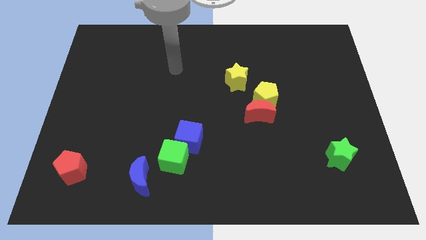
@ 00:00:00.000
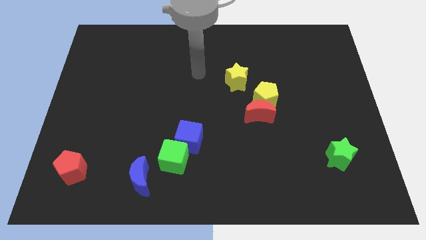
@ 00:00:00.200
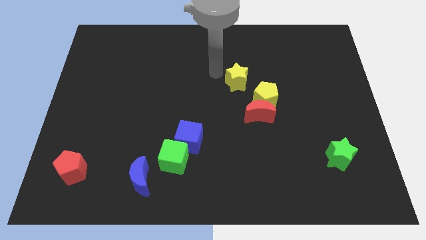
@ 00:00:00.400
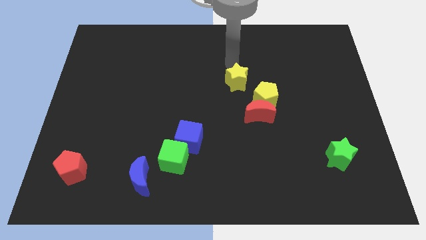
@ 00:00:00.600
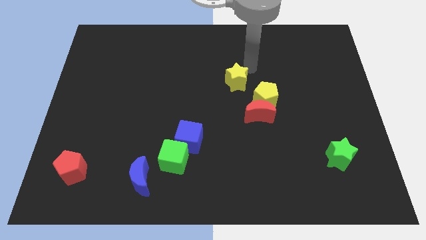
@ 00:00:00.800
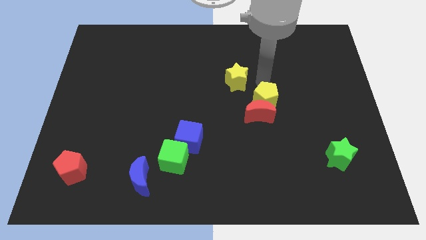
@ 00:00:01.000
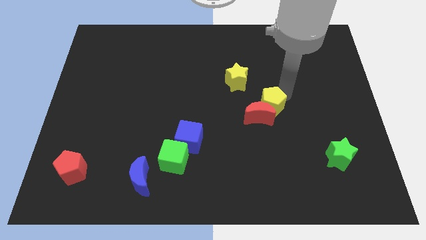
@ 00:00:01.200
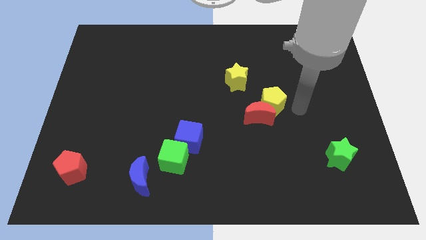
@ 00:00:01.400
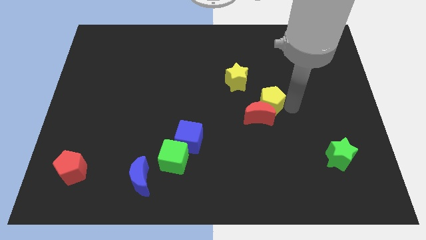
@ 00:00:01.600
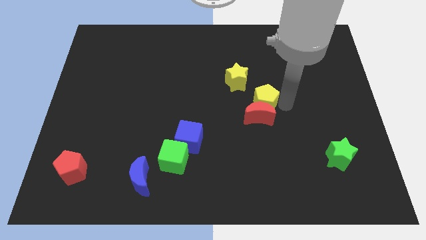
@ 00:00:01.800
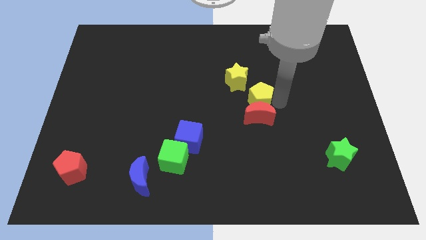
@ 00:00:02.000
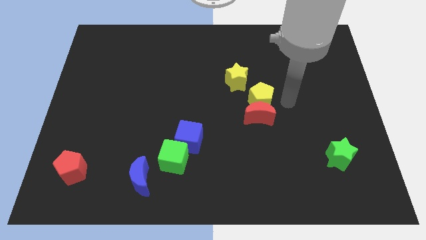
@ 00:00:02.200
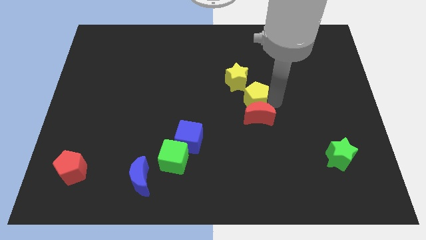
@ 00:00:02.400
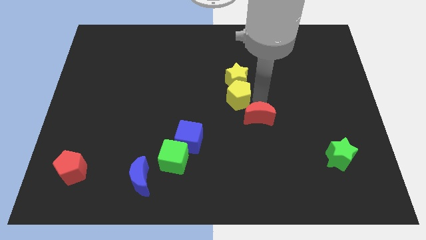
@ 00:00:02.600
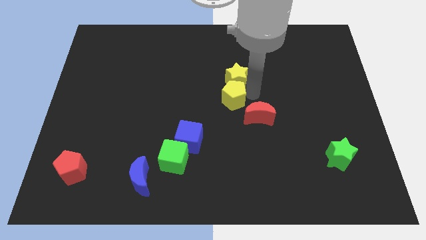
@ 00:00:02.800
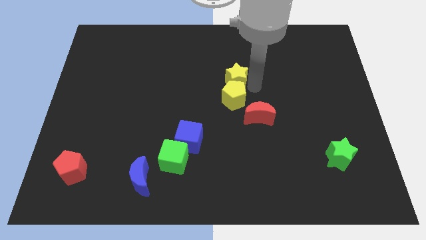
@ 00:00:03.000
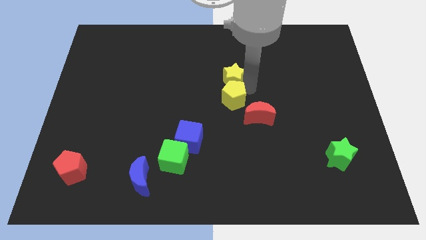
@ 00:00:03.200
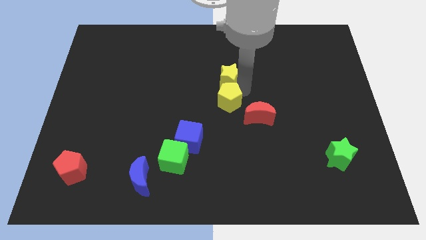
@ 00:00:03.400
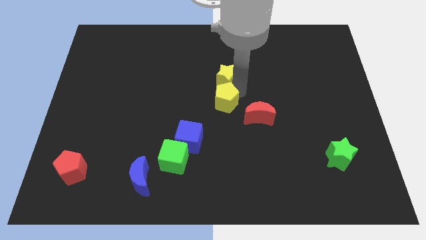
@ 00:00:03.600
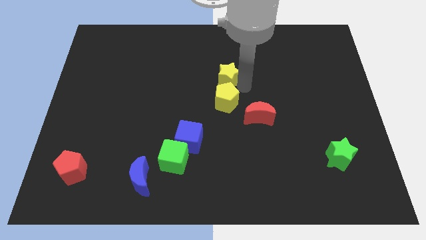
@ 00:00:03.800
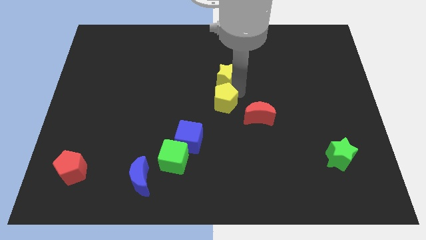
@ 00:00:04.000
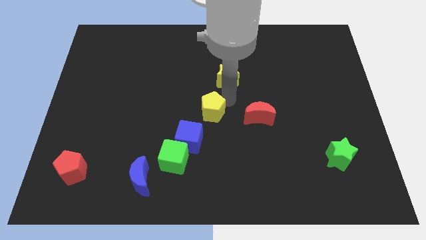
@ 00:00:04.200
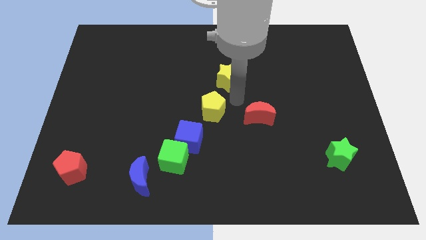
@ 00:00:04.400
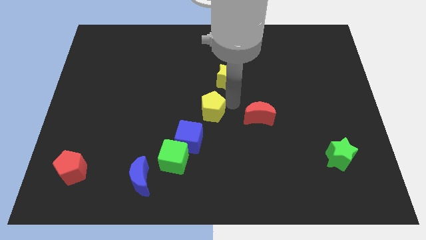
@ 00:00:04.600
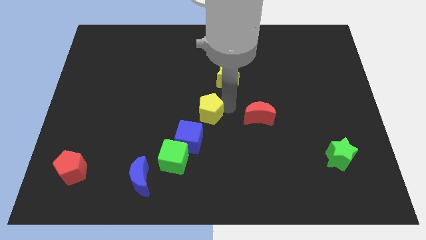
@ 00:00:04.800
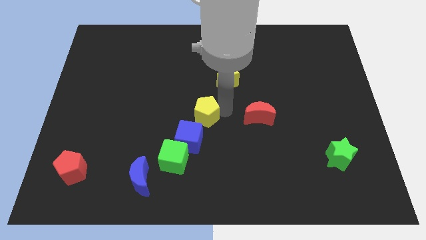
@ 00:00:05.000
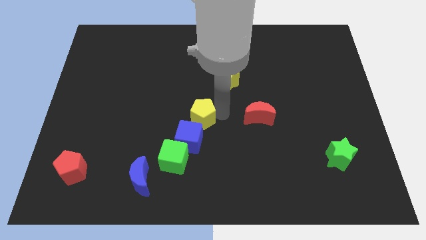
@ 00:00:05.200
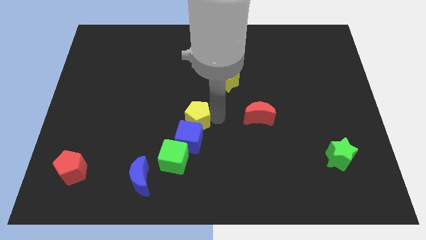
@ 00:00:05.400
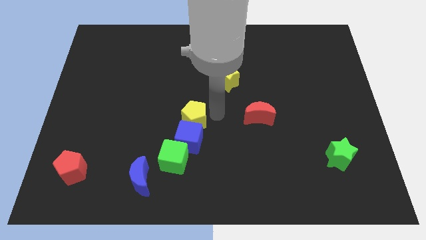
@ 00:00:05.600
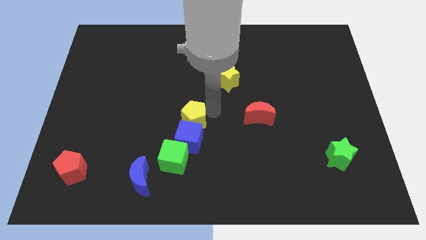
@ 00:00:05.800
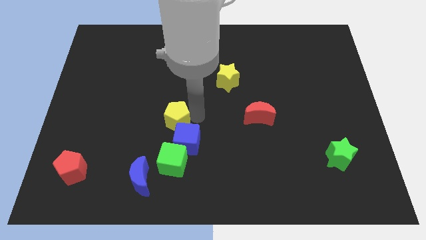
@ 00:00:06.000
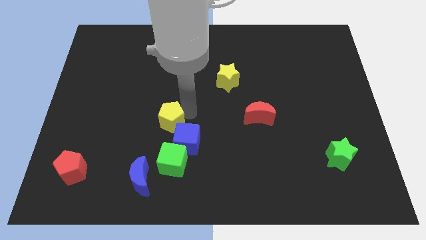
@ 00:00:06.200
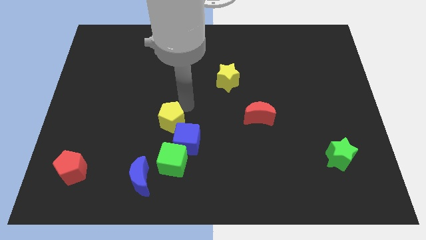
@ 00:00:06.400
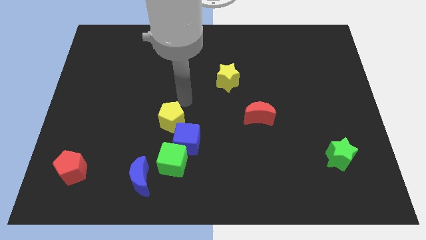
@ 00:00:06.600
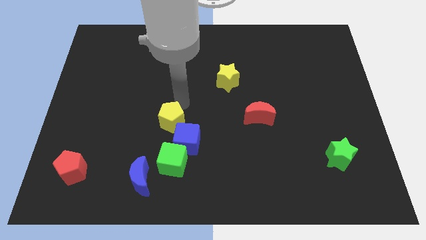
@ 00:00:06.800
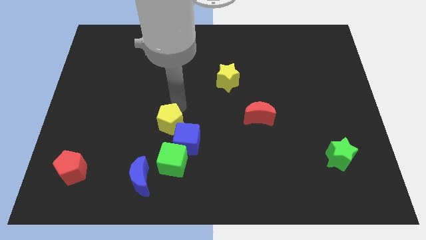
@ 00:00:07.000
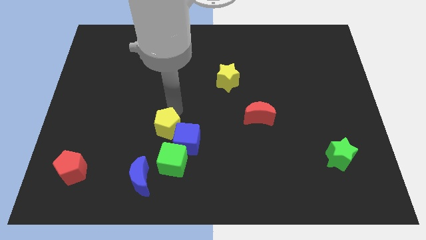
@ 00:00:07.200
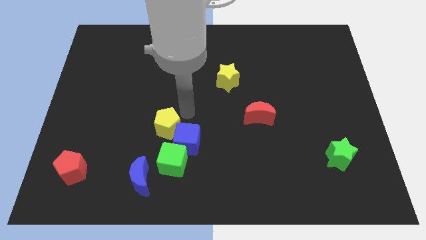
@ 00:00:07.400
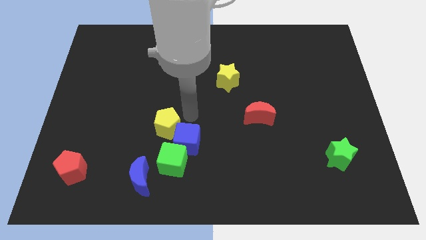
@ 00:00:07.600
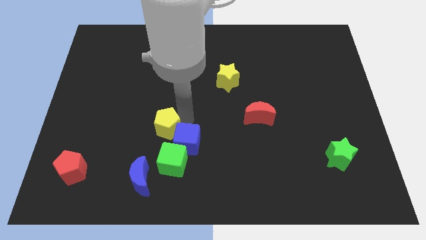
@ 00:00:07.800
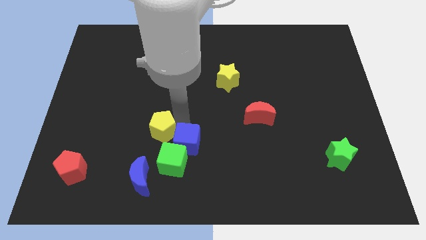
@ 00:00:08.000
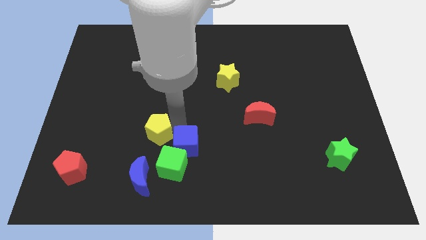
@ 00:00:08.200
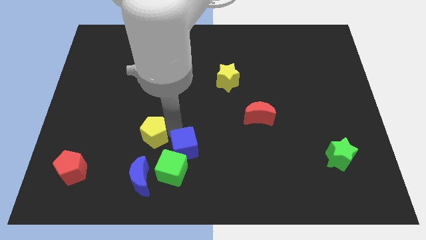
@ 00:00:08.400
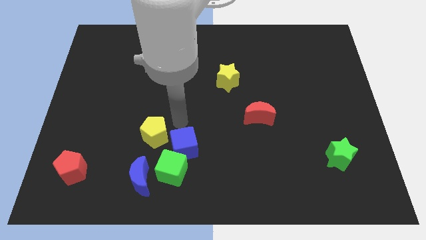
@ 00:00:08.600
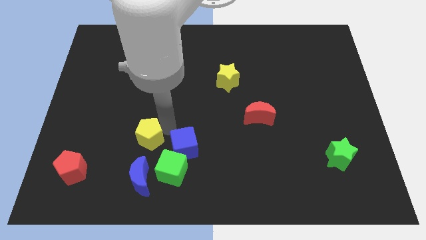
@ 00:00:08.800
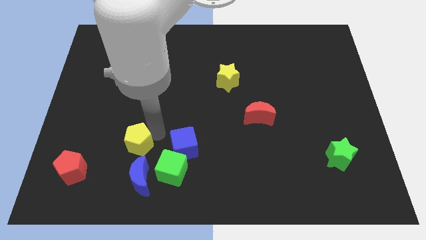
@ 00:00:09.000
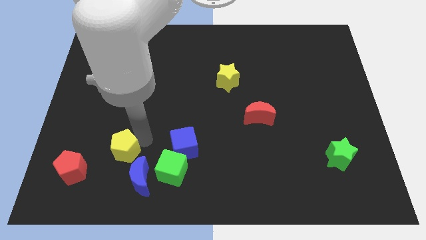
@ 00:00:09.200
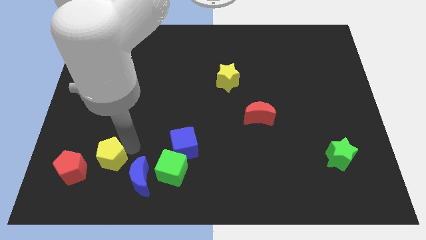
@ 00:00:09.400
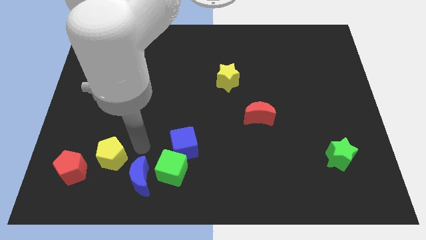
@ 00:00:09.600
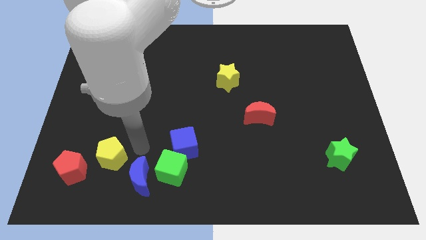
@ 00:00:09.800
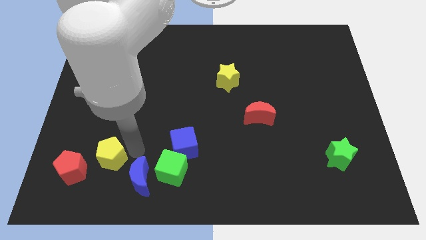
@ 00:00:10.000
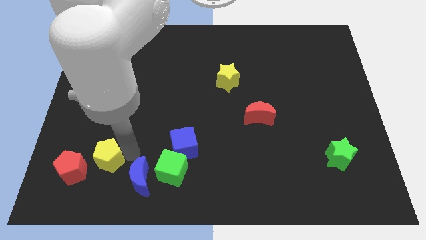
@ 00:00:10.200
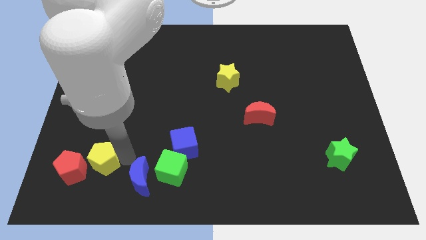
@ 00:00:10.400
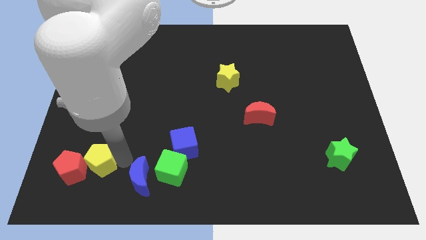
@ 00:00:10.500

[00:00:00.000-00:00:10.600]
slide the yellow pentagon towards the red pentagon

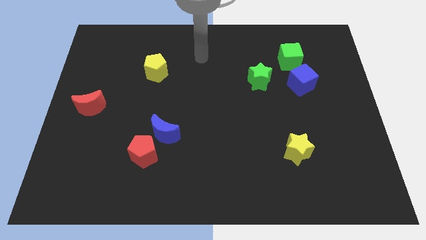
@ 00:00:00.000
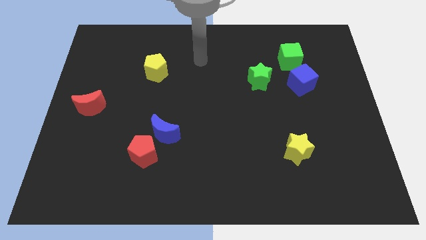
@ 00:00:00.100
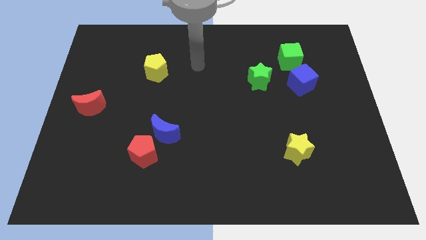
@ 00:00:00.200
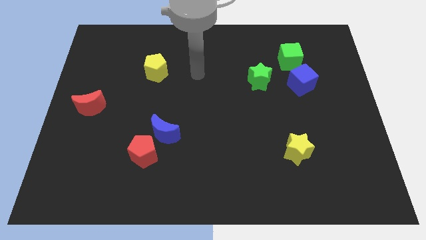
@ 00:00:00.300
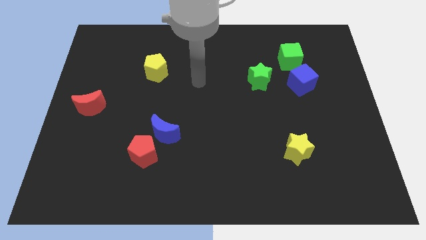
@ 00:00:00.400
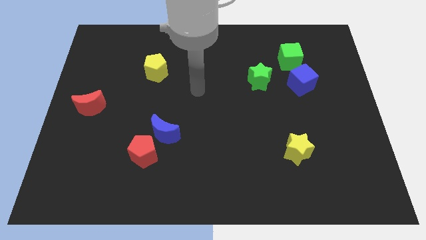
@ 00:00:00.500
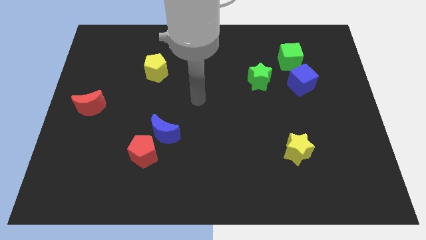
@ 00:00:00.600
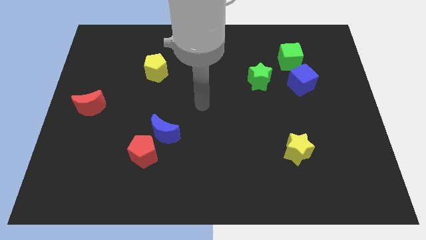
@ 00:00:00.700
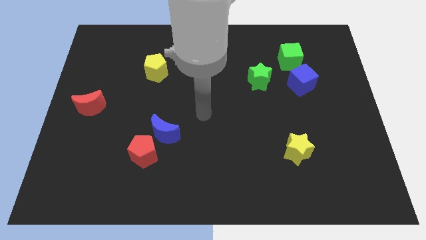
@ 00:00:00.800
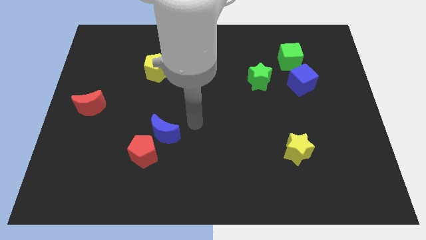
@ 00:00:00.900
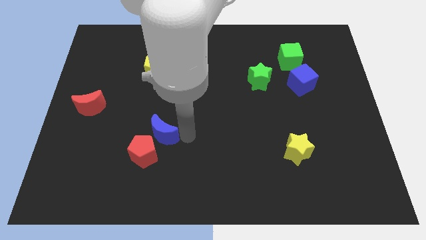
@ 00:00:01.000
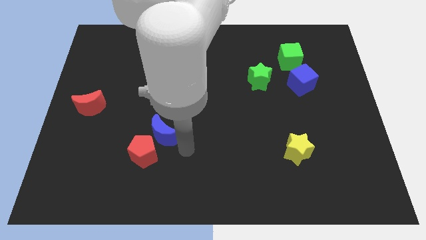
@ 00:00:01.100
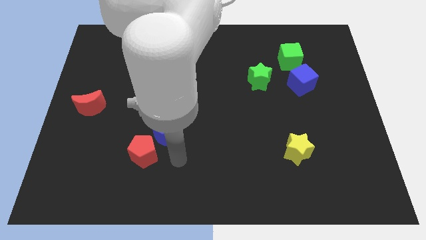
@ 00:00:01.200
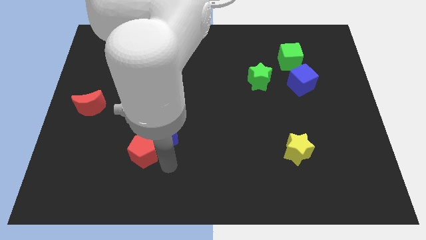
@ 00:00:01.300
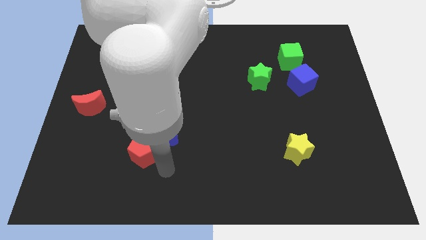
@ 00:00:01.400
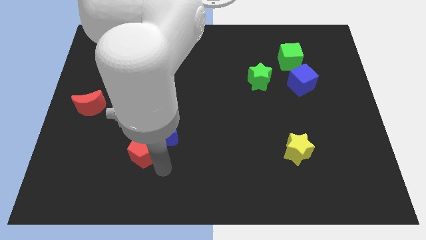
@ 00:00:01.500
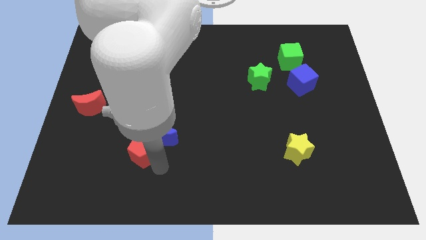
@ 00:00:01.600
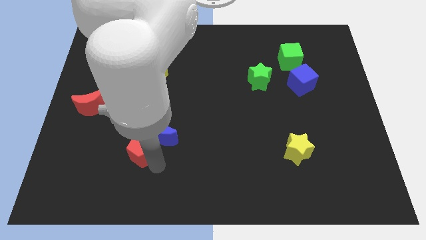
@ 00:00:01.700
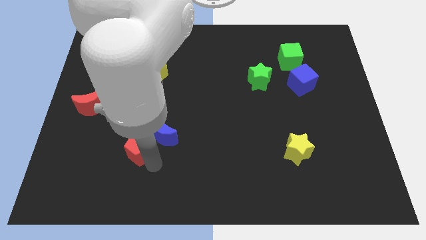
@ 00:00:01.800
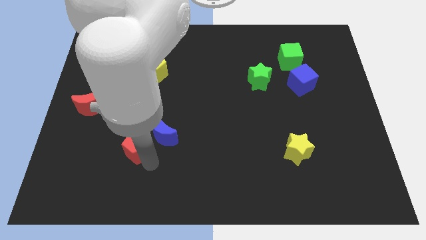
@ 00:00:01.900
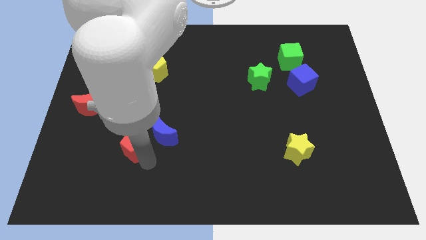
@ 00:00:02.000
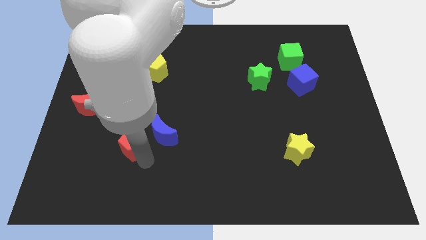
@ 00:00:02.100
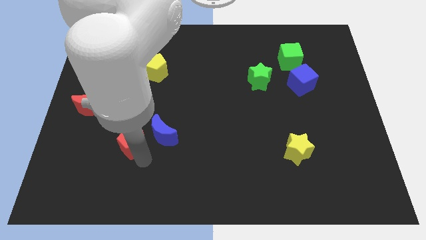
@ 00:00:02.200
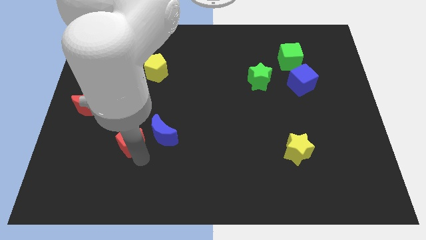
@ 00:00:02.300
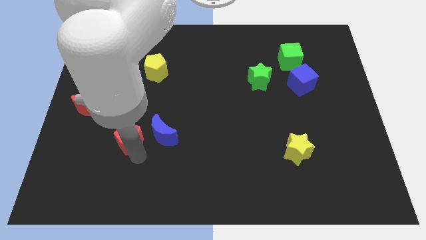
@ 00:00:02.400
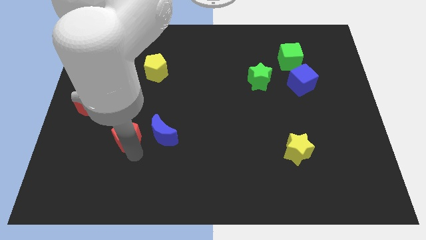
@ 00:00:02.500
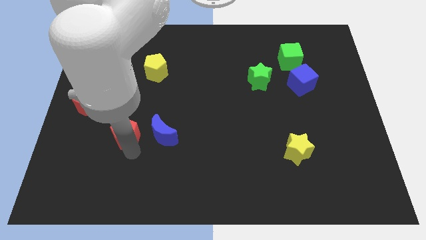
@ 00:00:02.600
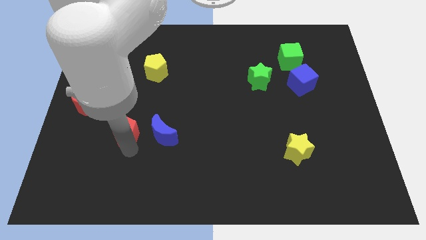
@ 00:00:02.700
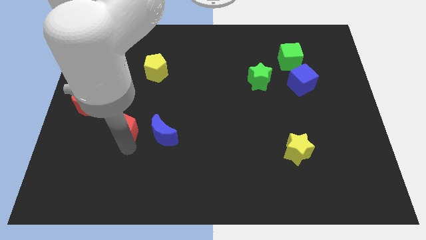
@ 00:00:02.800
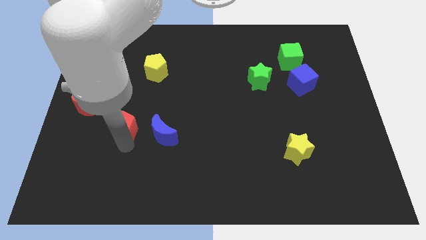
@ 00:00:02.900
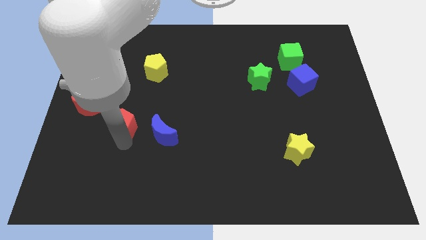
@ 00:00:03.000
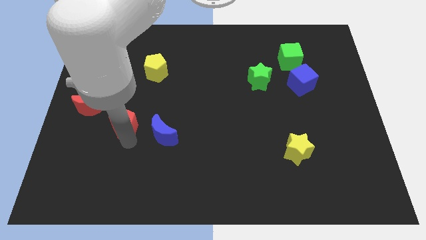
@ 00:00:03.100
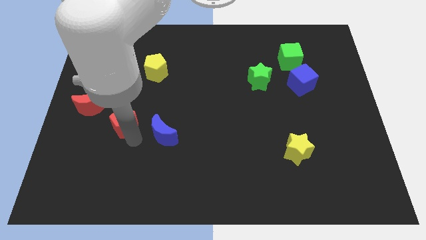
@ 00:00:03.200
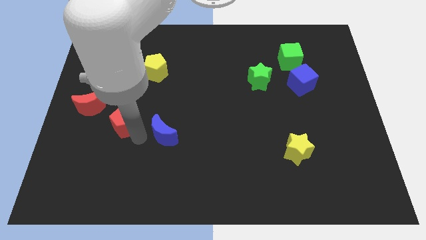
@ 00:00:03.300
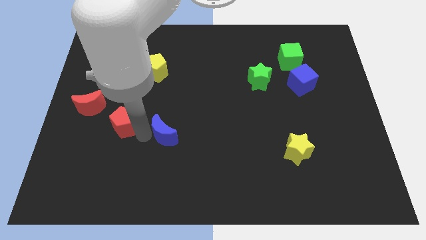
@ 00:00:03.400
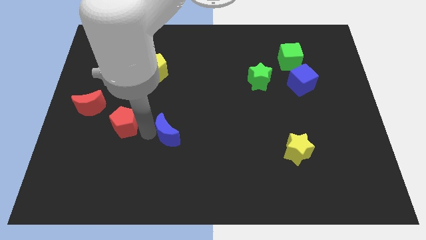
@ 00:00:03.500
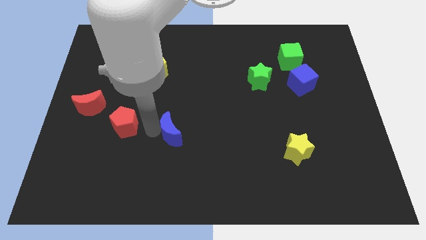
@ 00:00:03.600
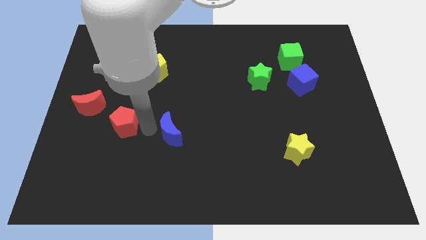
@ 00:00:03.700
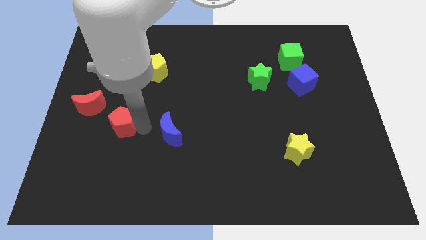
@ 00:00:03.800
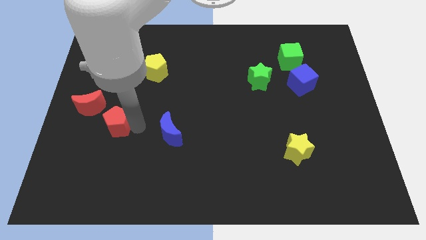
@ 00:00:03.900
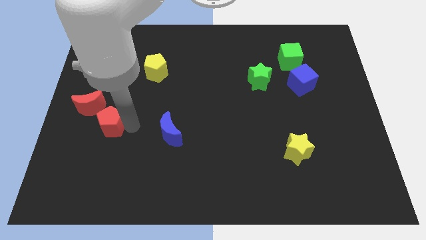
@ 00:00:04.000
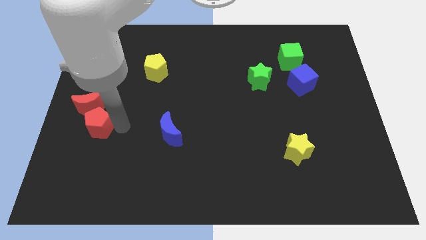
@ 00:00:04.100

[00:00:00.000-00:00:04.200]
push the red pentagon close to the red moon
